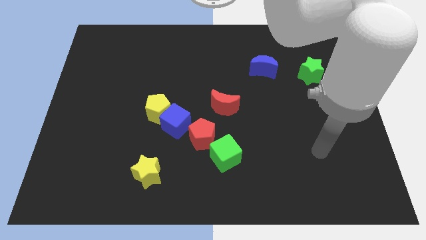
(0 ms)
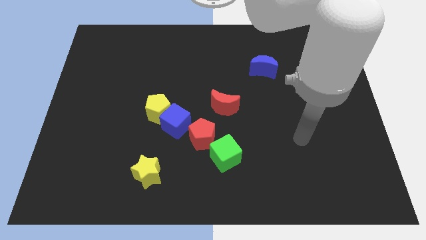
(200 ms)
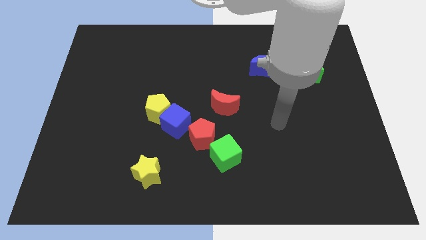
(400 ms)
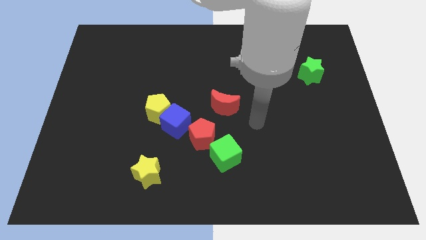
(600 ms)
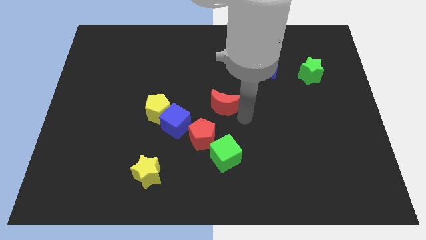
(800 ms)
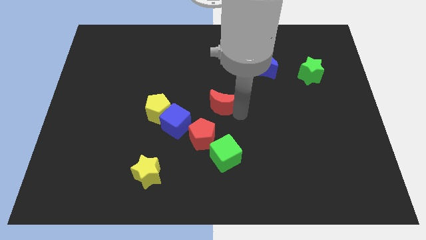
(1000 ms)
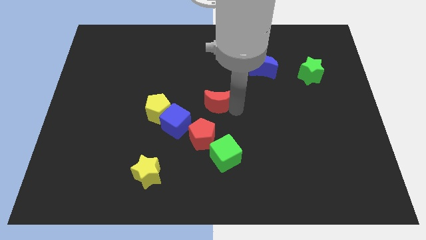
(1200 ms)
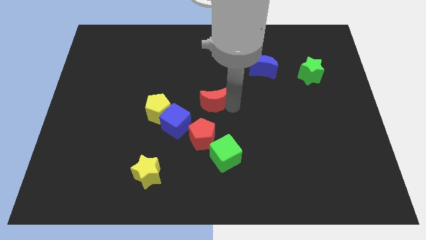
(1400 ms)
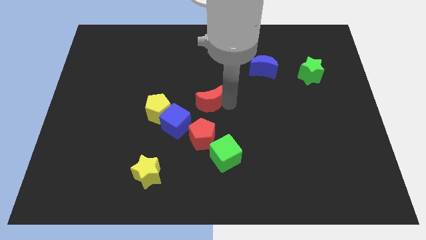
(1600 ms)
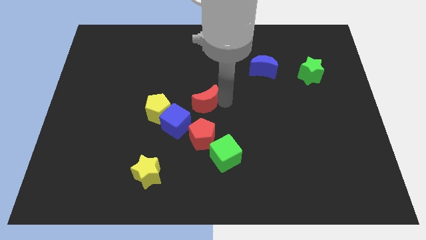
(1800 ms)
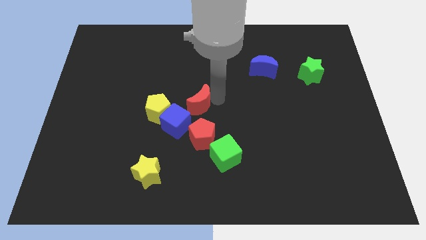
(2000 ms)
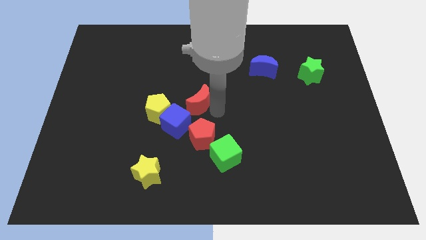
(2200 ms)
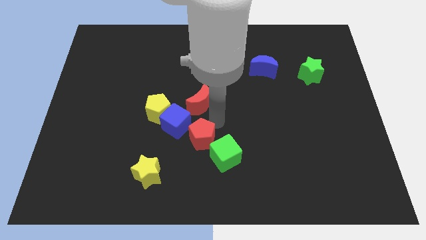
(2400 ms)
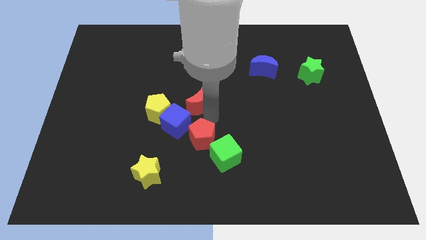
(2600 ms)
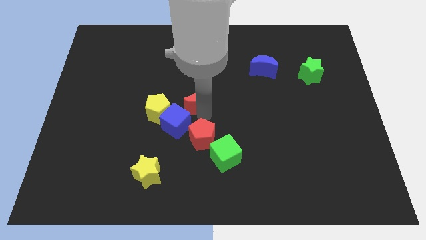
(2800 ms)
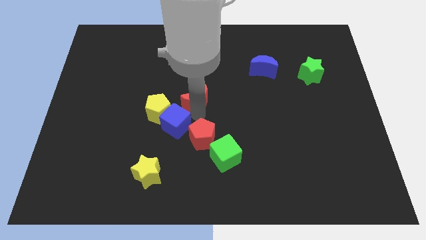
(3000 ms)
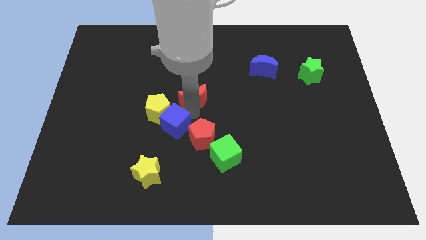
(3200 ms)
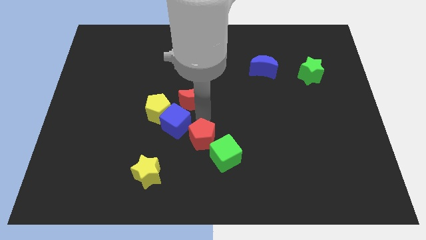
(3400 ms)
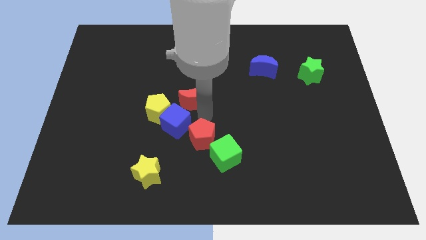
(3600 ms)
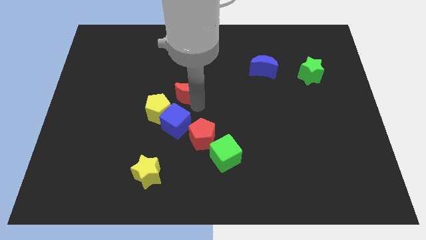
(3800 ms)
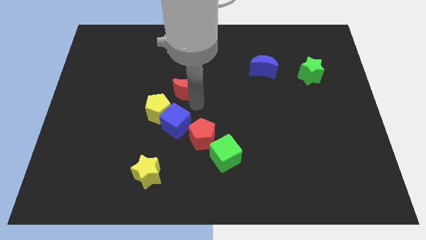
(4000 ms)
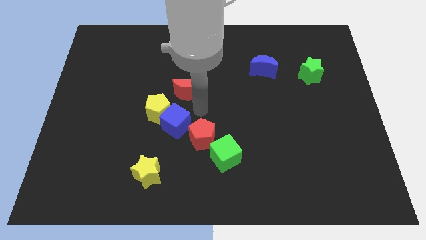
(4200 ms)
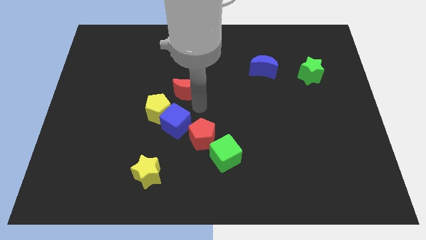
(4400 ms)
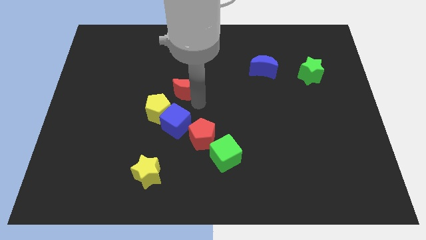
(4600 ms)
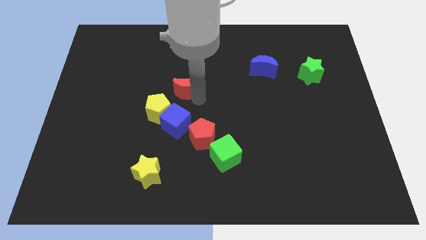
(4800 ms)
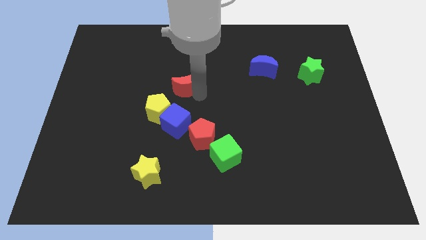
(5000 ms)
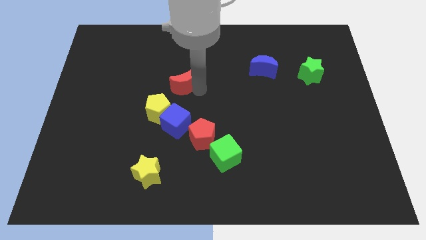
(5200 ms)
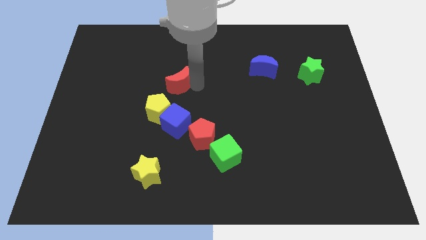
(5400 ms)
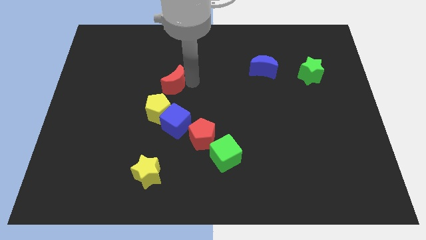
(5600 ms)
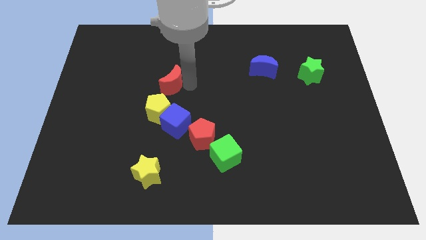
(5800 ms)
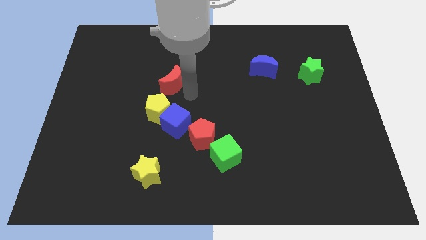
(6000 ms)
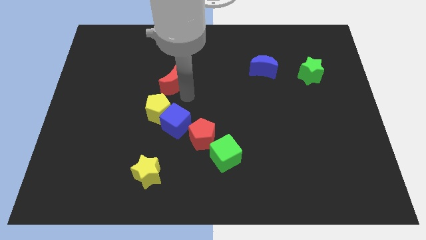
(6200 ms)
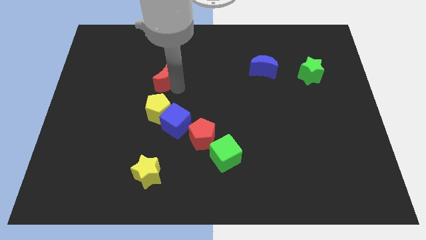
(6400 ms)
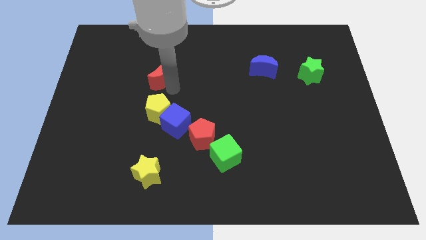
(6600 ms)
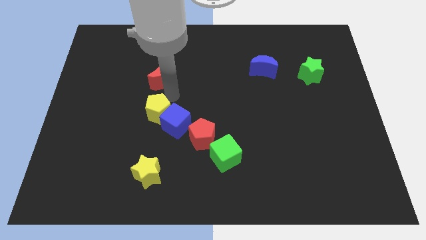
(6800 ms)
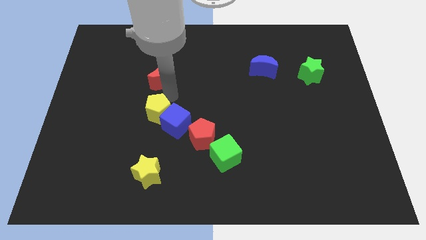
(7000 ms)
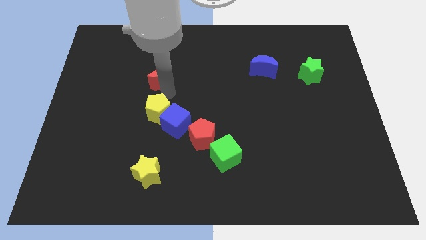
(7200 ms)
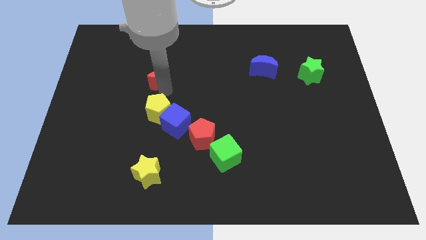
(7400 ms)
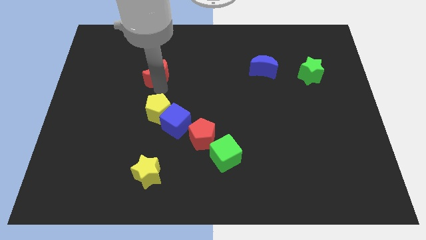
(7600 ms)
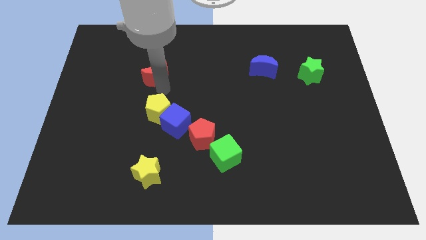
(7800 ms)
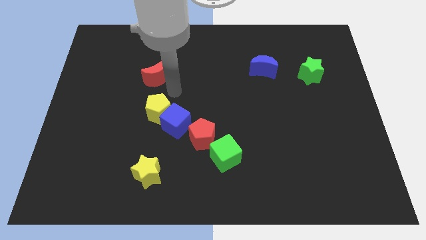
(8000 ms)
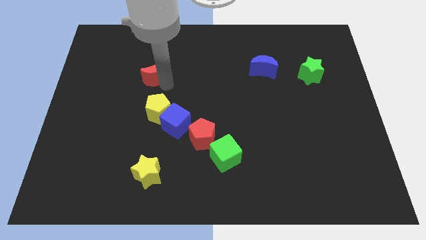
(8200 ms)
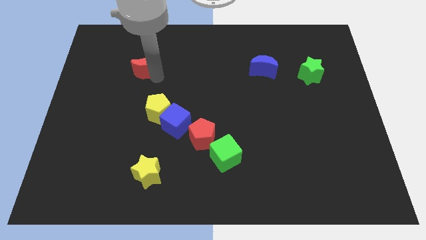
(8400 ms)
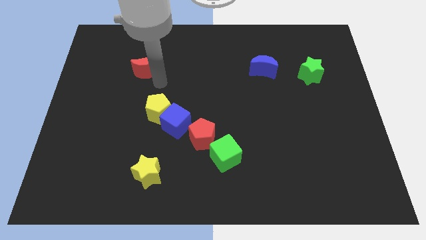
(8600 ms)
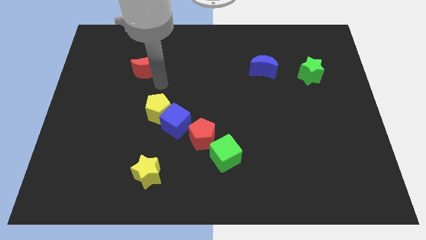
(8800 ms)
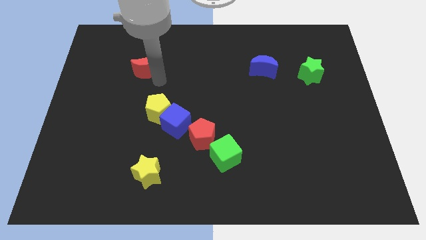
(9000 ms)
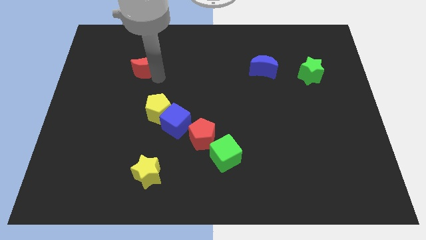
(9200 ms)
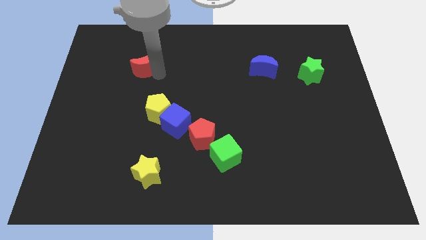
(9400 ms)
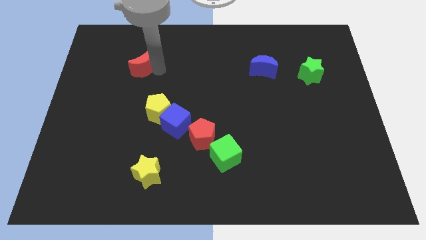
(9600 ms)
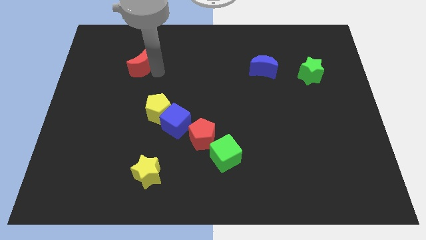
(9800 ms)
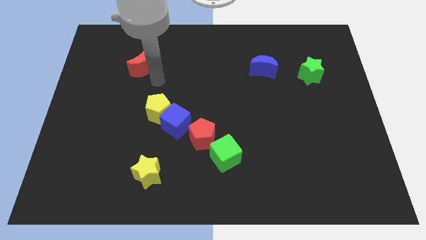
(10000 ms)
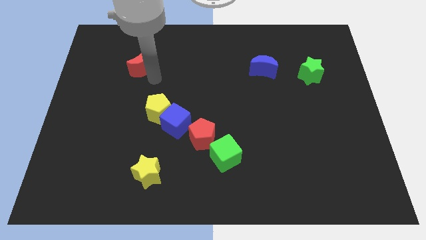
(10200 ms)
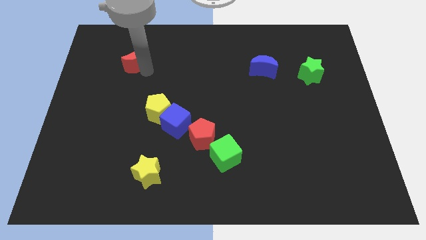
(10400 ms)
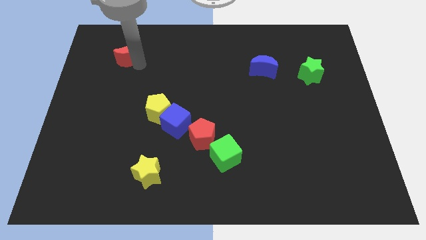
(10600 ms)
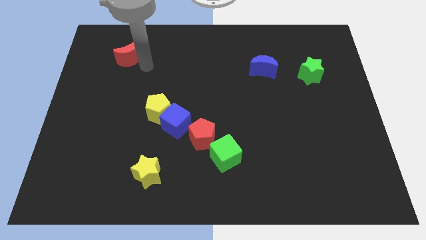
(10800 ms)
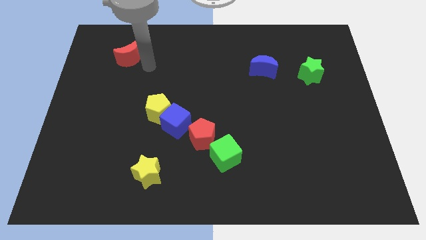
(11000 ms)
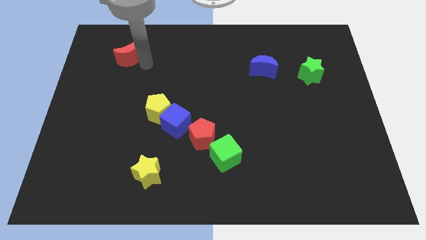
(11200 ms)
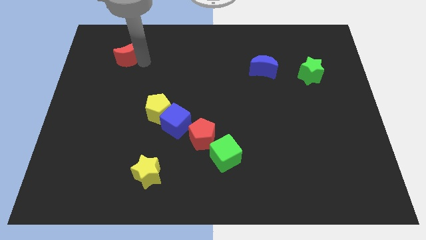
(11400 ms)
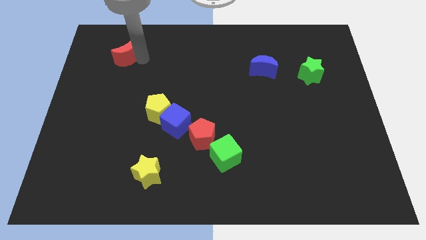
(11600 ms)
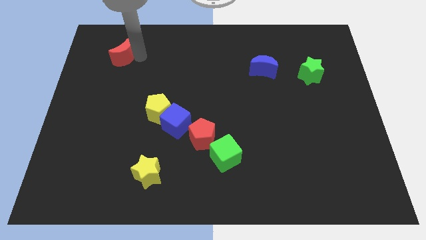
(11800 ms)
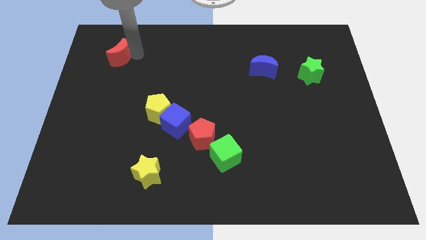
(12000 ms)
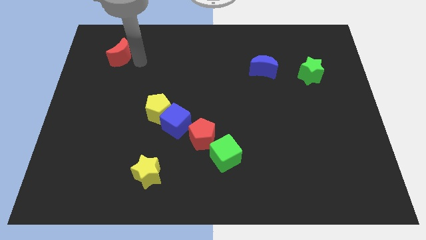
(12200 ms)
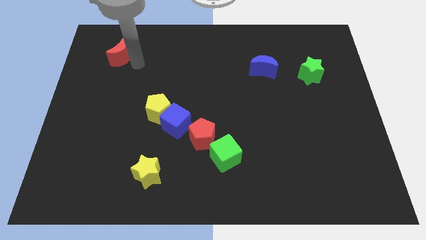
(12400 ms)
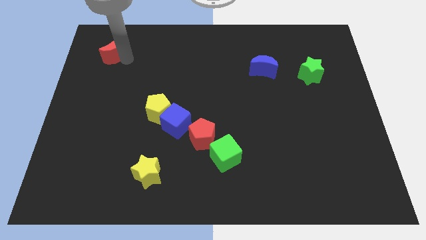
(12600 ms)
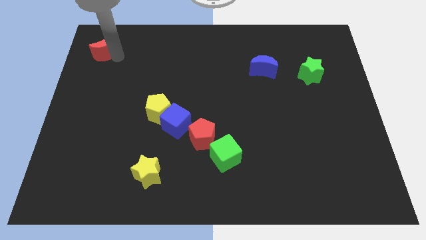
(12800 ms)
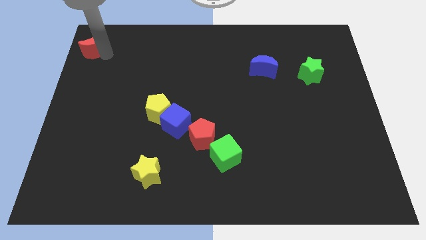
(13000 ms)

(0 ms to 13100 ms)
put the red moon to the upper left corner
